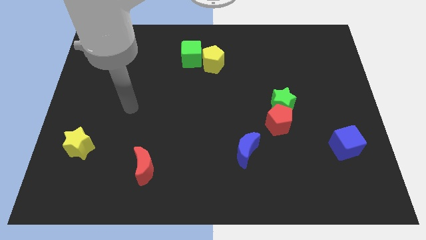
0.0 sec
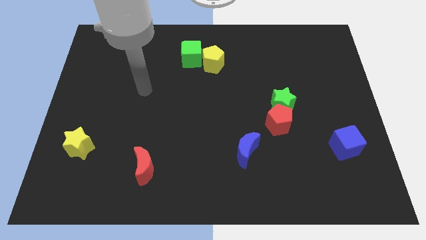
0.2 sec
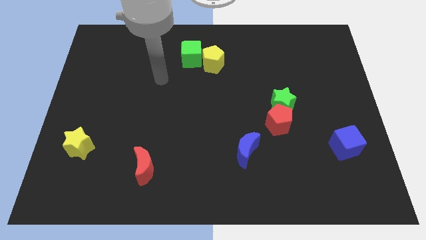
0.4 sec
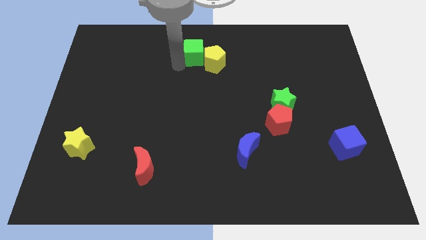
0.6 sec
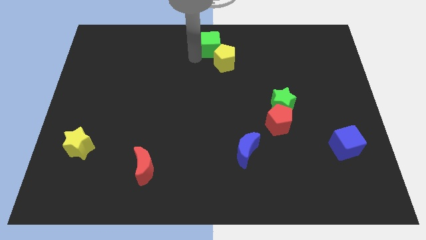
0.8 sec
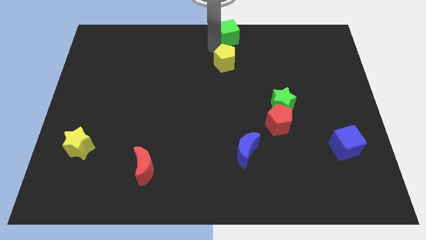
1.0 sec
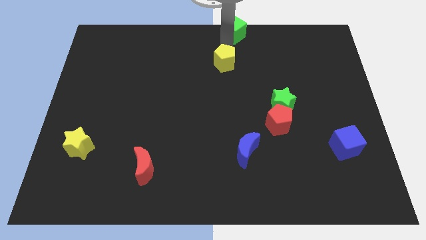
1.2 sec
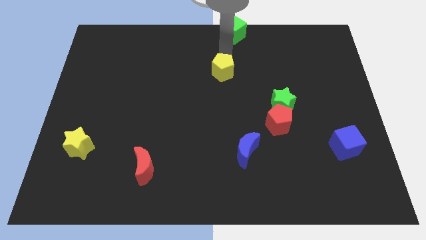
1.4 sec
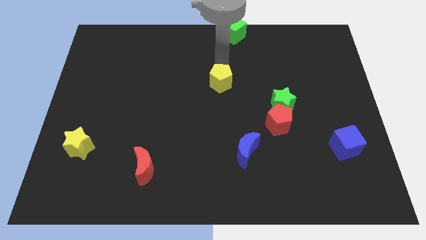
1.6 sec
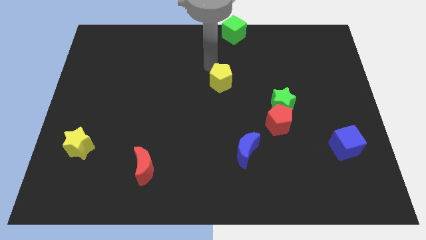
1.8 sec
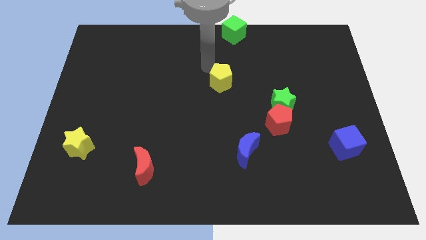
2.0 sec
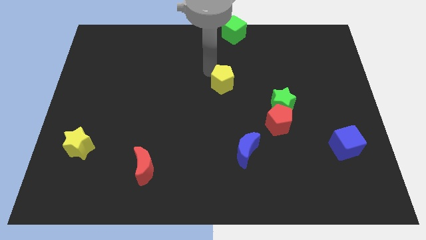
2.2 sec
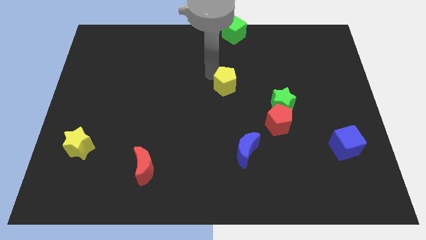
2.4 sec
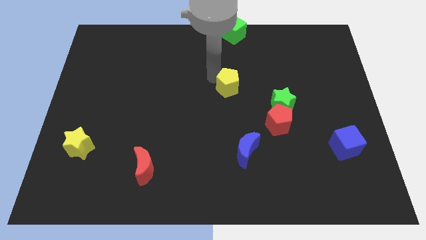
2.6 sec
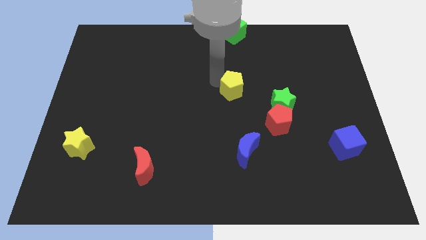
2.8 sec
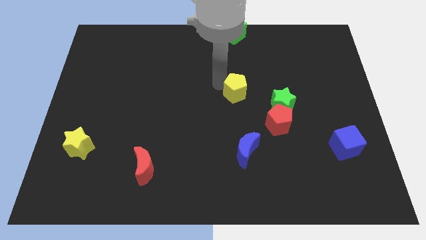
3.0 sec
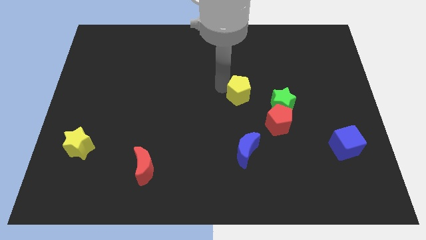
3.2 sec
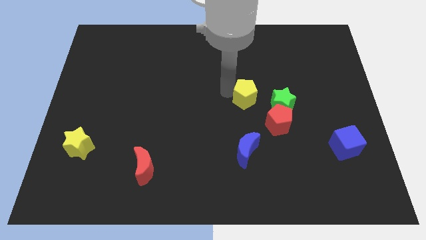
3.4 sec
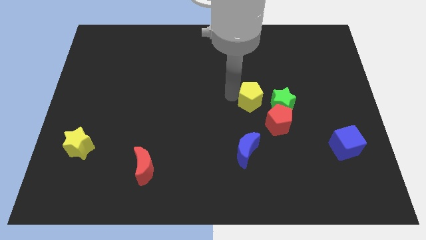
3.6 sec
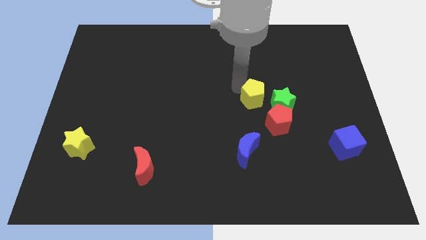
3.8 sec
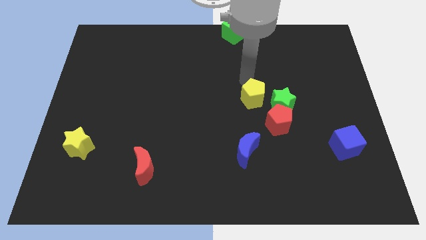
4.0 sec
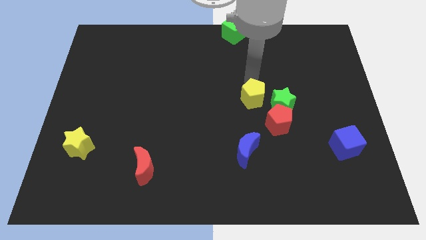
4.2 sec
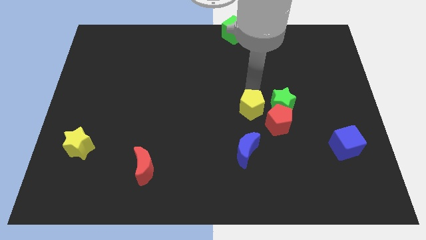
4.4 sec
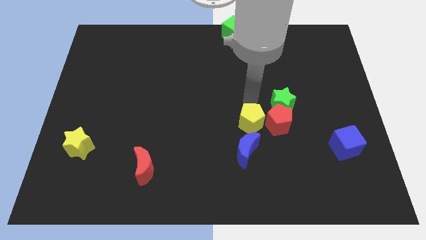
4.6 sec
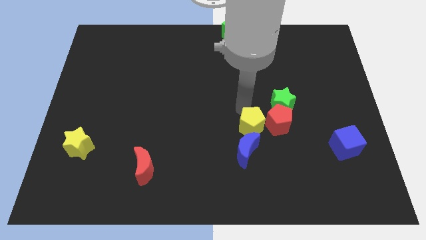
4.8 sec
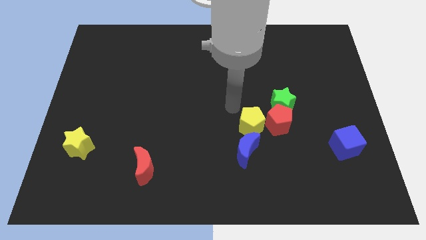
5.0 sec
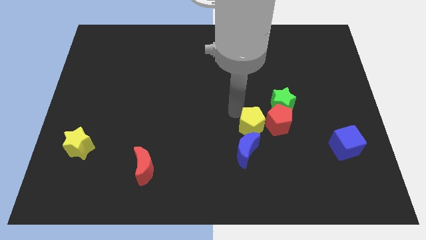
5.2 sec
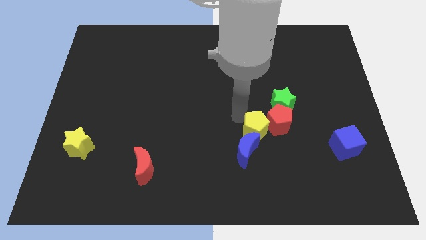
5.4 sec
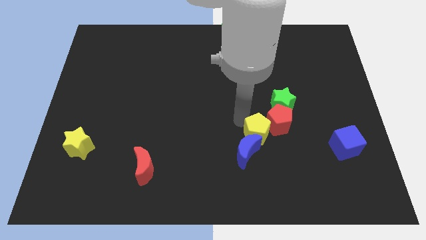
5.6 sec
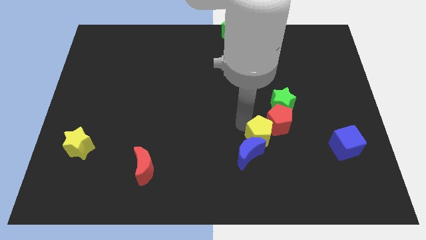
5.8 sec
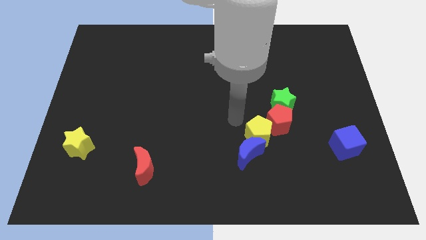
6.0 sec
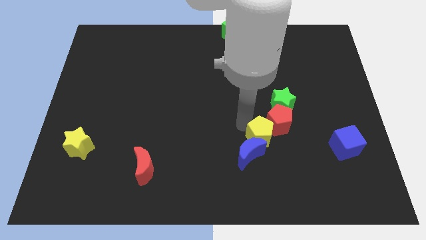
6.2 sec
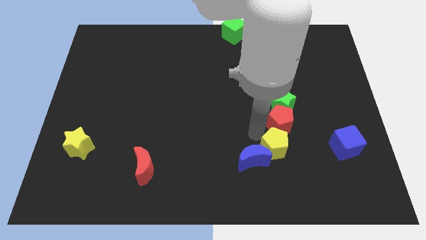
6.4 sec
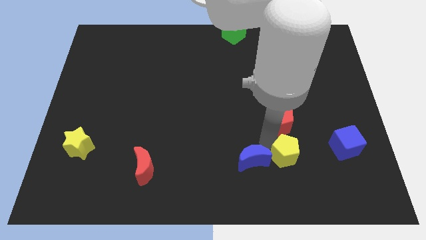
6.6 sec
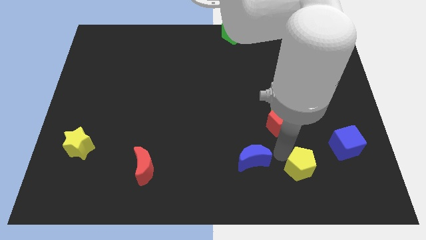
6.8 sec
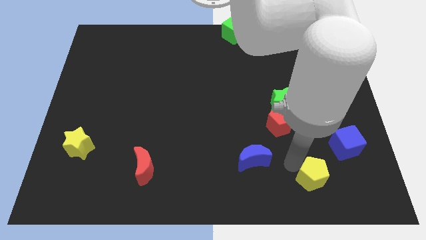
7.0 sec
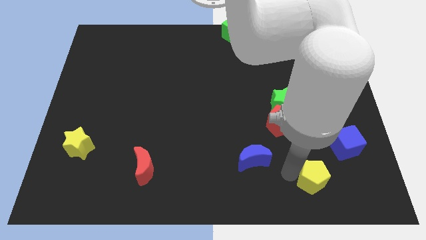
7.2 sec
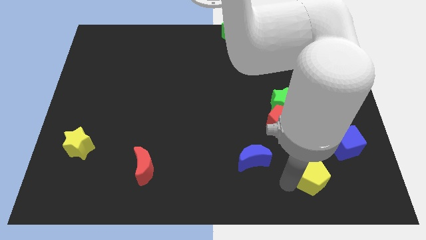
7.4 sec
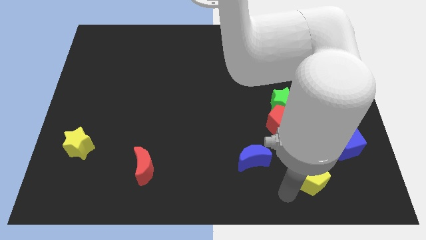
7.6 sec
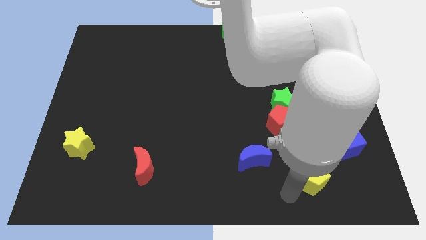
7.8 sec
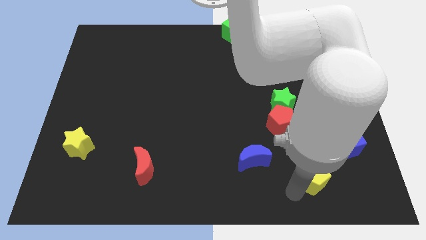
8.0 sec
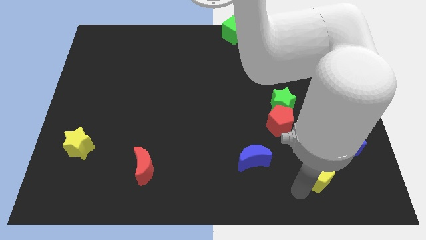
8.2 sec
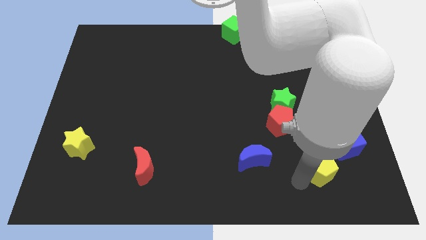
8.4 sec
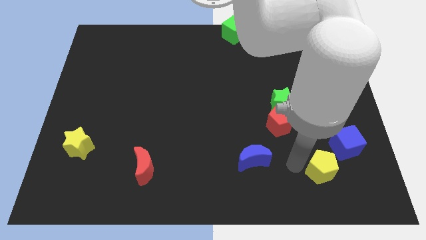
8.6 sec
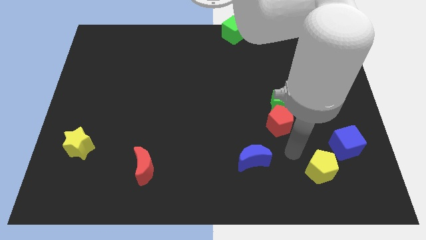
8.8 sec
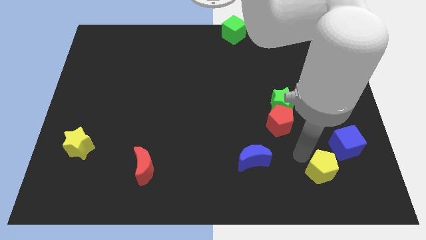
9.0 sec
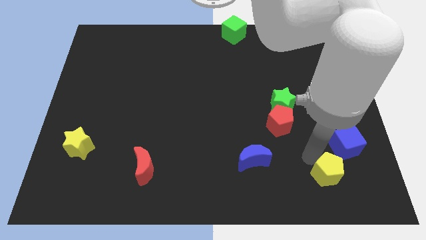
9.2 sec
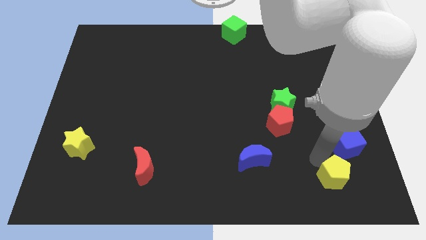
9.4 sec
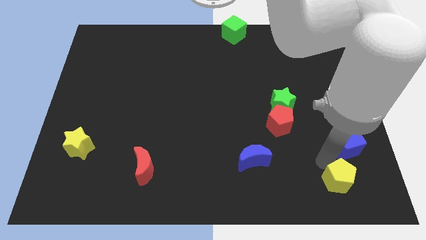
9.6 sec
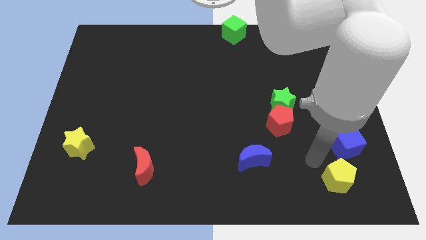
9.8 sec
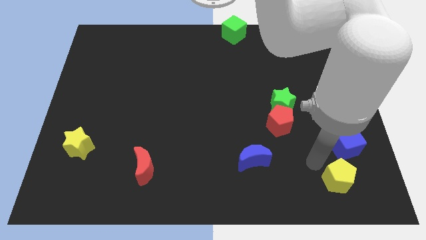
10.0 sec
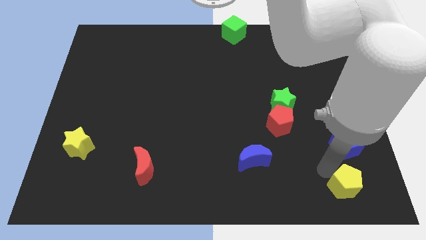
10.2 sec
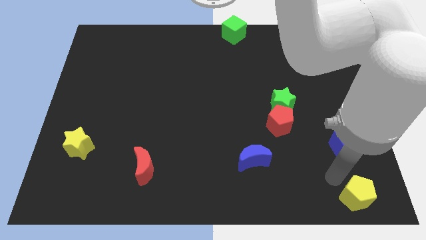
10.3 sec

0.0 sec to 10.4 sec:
push the yellow pentagon to the lower right corner
